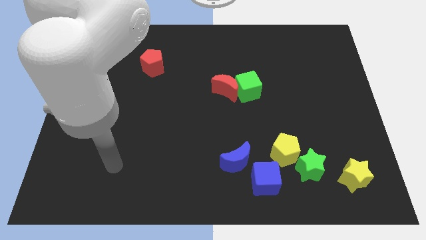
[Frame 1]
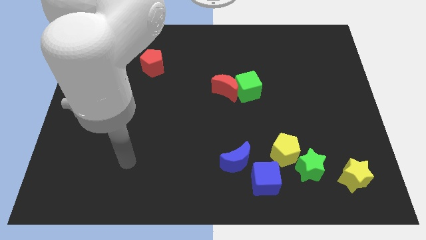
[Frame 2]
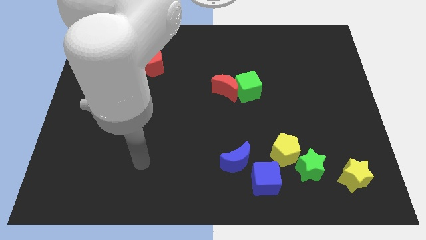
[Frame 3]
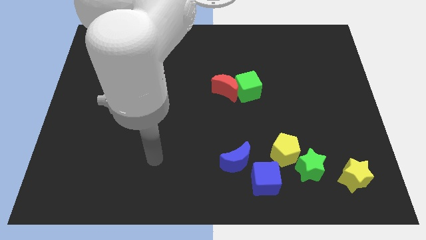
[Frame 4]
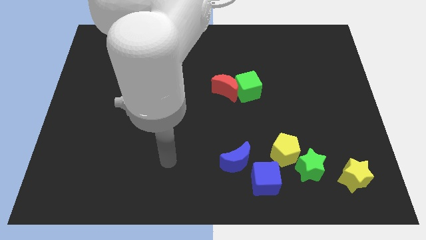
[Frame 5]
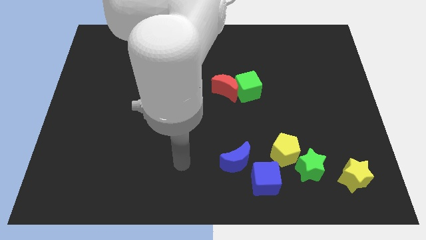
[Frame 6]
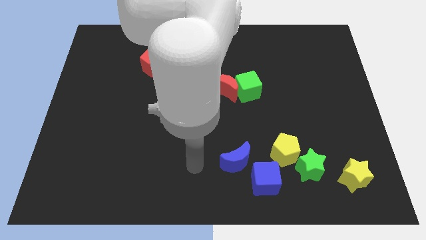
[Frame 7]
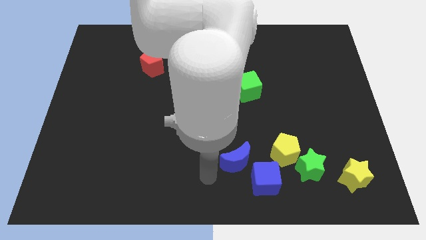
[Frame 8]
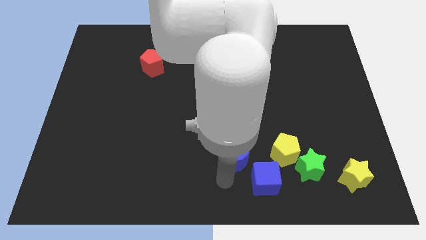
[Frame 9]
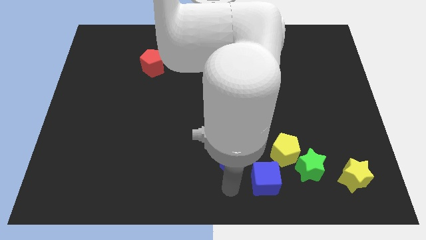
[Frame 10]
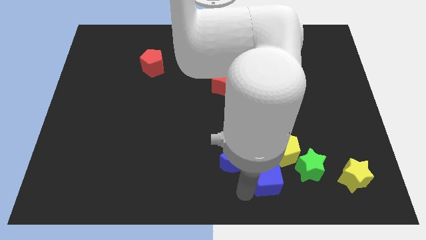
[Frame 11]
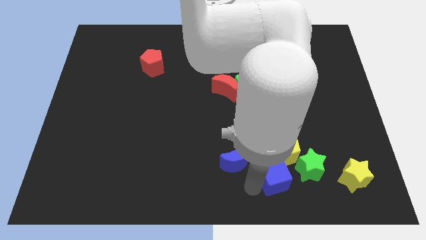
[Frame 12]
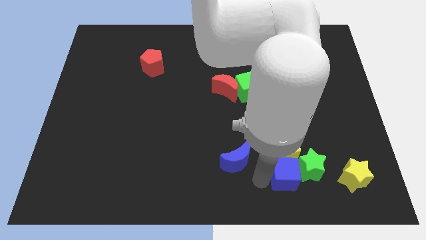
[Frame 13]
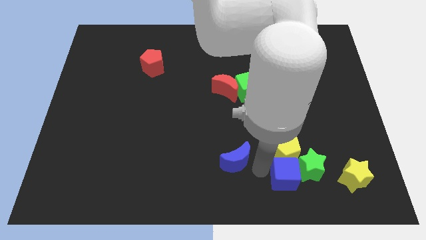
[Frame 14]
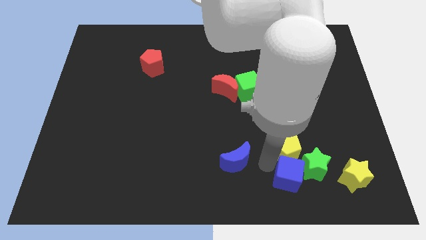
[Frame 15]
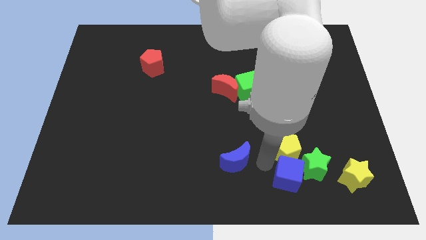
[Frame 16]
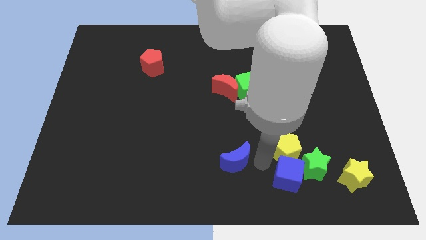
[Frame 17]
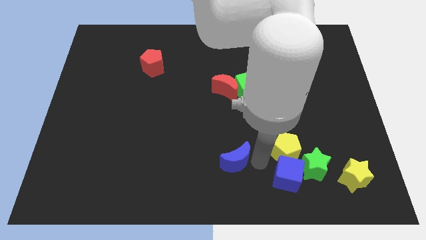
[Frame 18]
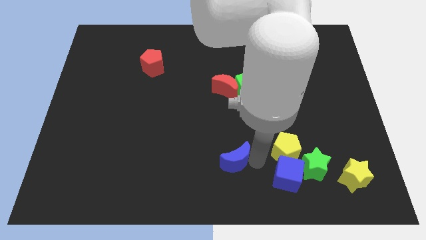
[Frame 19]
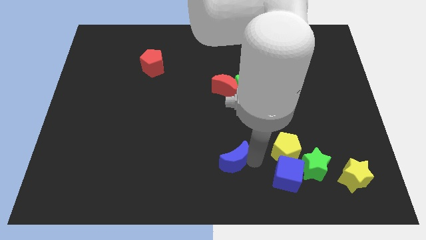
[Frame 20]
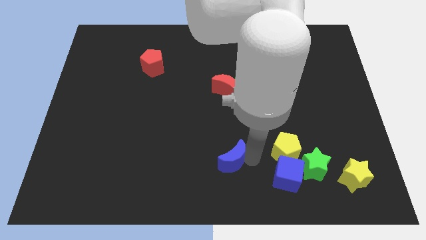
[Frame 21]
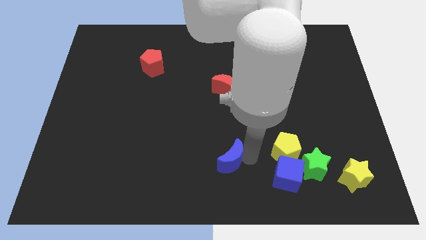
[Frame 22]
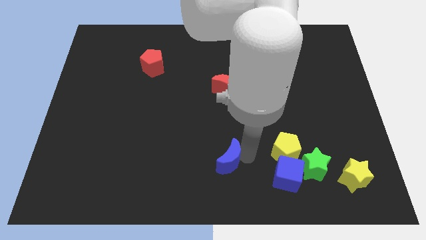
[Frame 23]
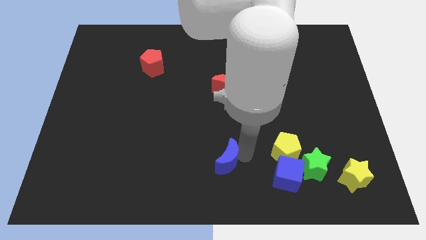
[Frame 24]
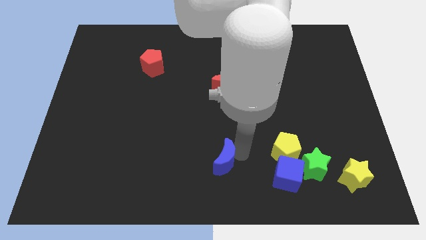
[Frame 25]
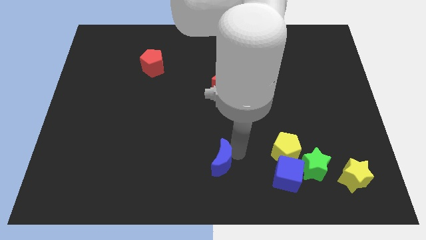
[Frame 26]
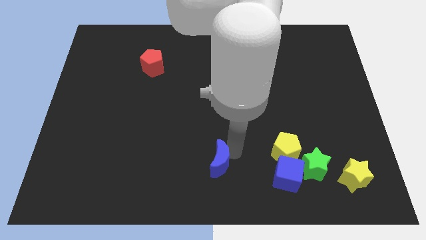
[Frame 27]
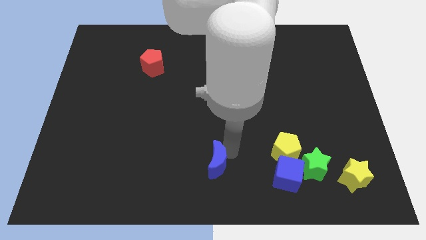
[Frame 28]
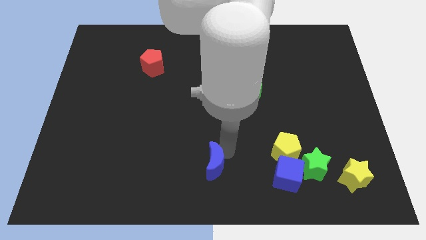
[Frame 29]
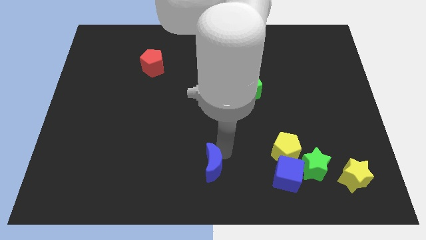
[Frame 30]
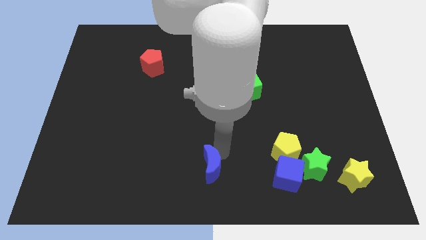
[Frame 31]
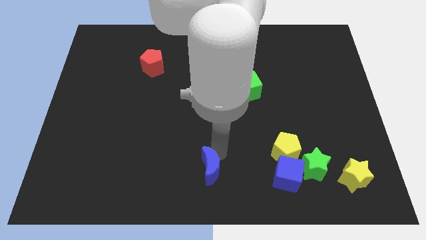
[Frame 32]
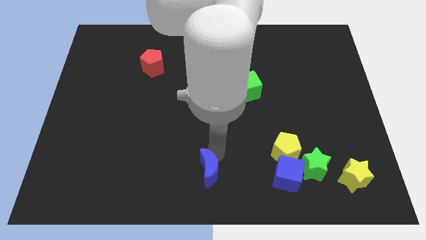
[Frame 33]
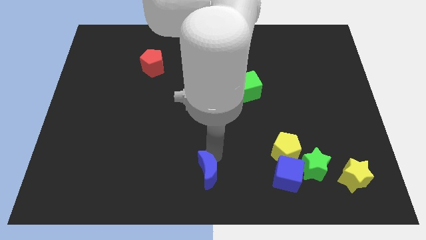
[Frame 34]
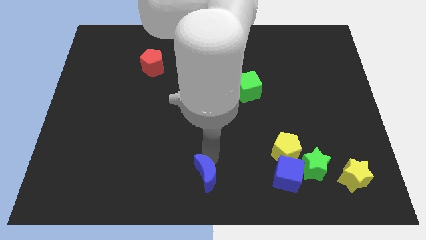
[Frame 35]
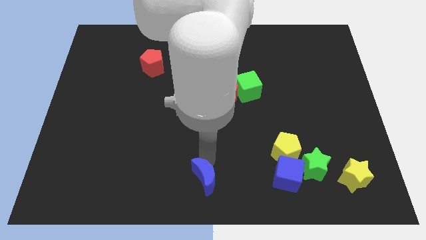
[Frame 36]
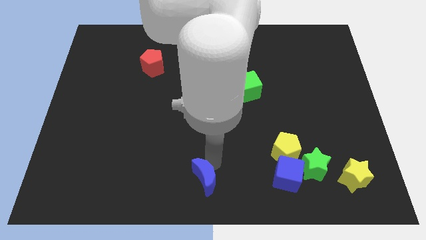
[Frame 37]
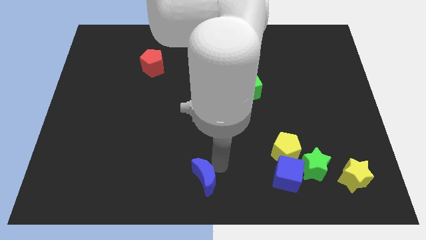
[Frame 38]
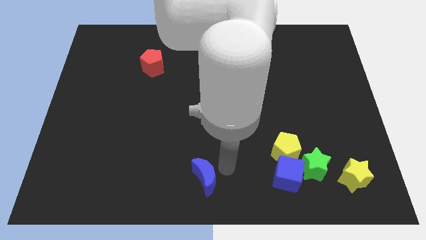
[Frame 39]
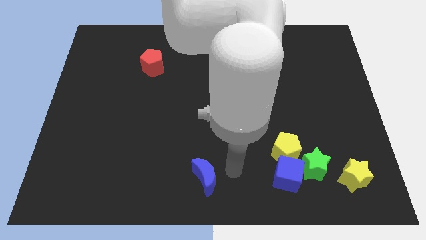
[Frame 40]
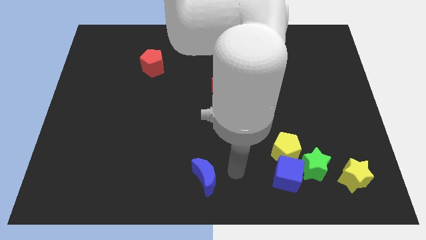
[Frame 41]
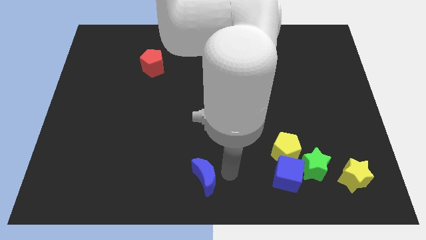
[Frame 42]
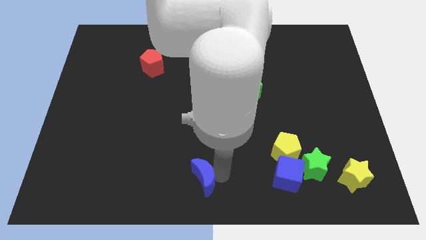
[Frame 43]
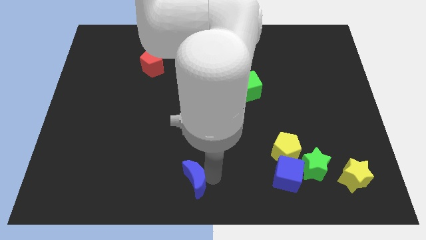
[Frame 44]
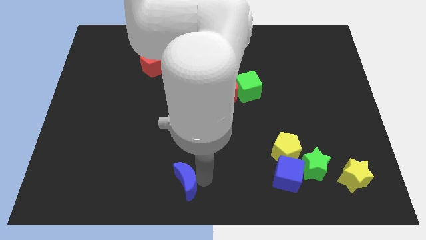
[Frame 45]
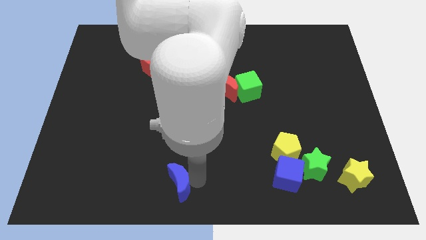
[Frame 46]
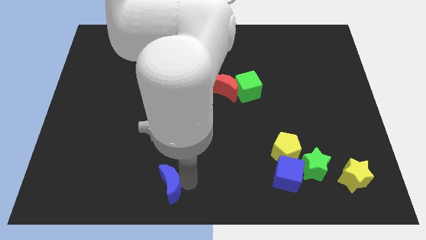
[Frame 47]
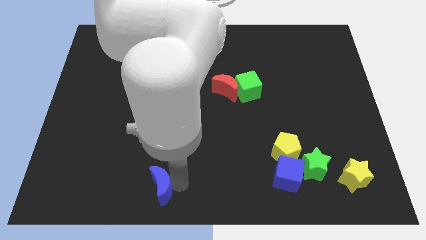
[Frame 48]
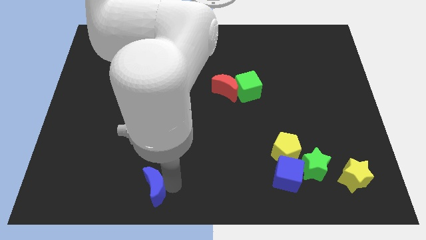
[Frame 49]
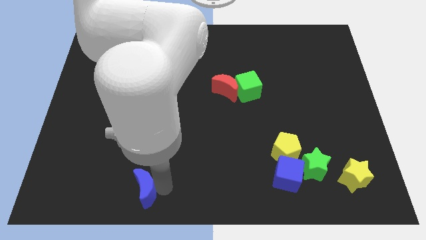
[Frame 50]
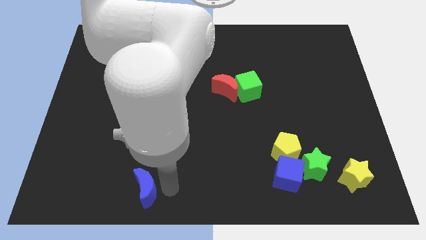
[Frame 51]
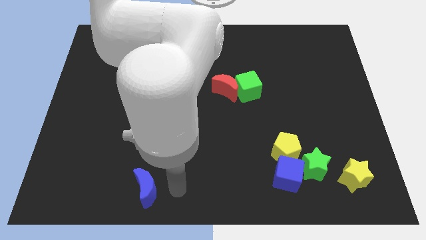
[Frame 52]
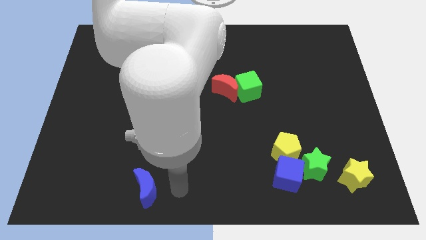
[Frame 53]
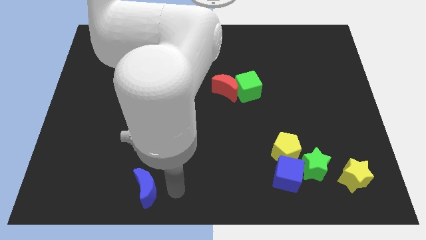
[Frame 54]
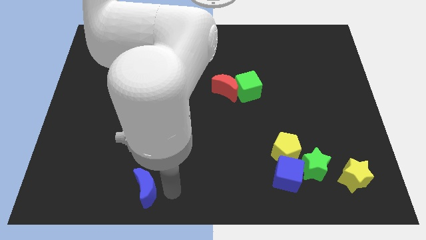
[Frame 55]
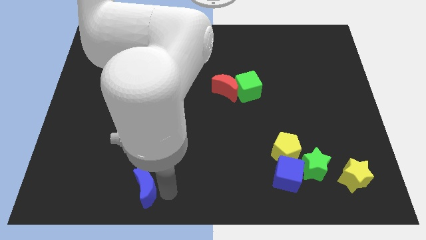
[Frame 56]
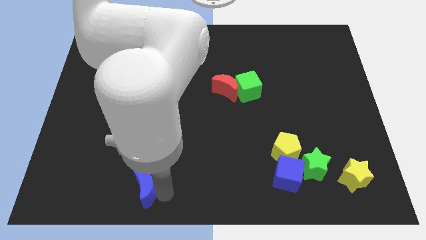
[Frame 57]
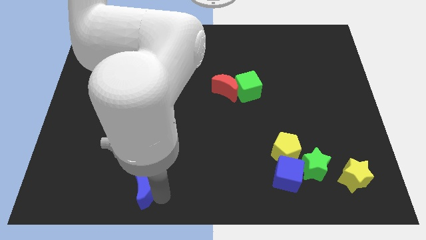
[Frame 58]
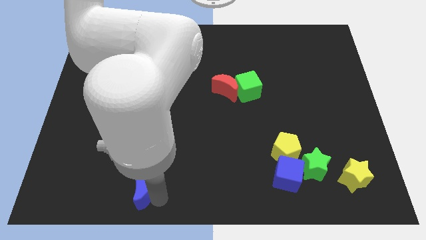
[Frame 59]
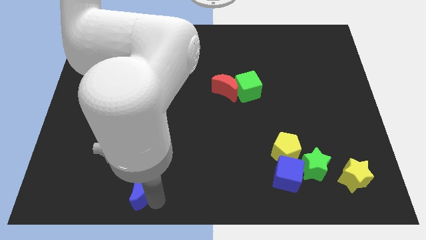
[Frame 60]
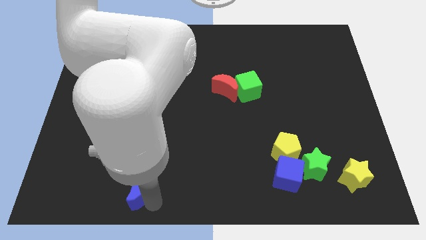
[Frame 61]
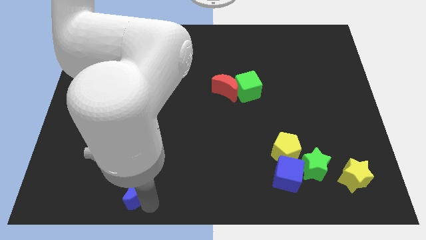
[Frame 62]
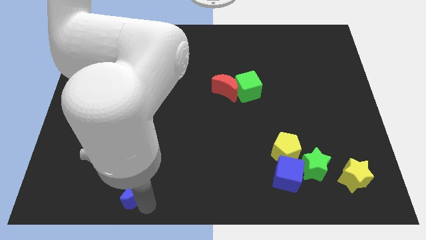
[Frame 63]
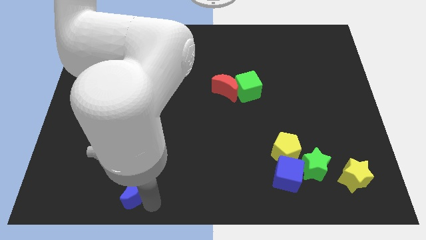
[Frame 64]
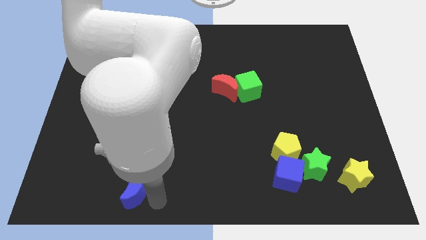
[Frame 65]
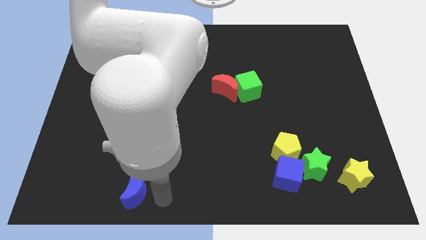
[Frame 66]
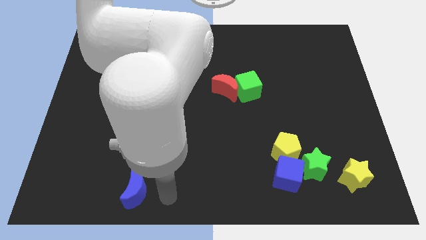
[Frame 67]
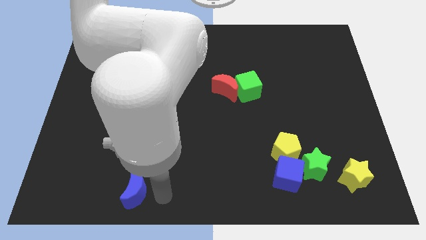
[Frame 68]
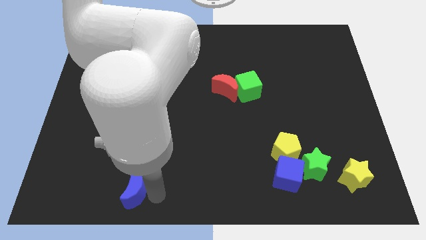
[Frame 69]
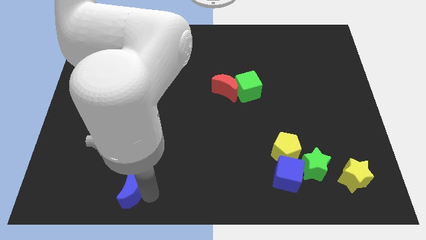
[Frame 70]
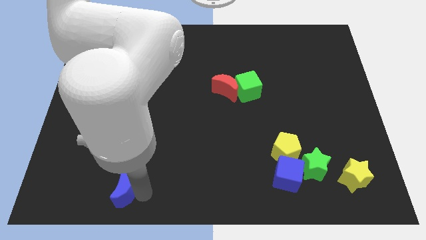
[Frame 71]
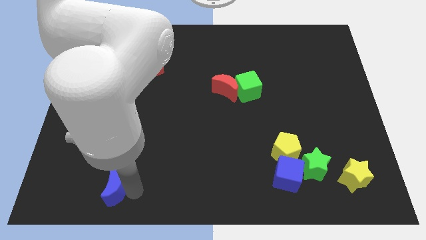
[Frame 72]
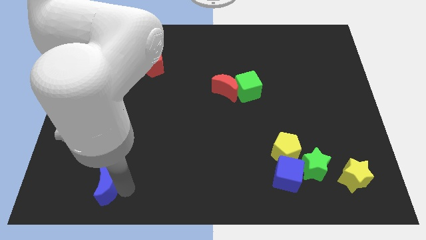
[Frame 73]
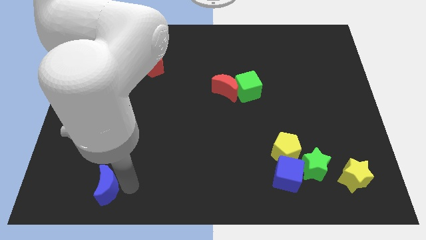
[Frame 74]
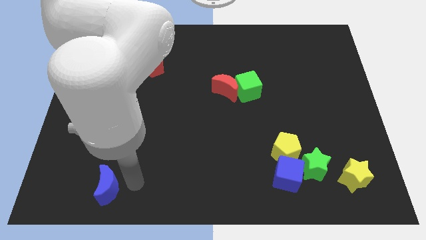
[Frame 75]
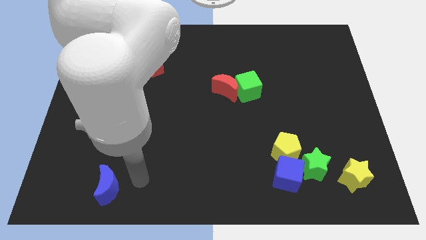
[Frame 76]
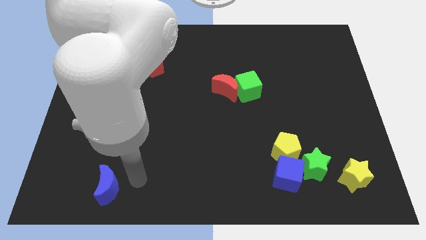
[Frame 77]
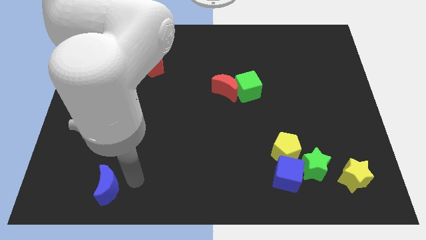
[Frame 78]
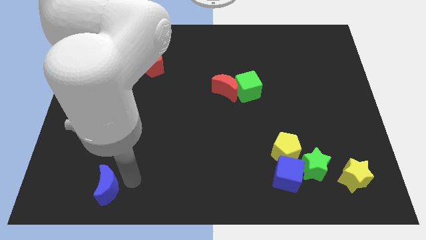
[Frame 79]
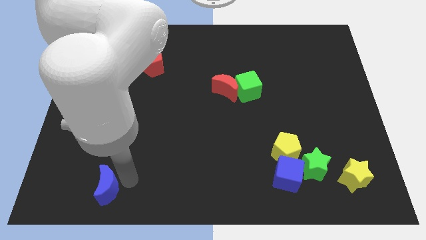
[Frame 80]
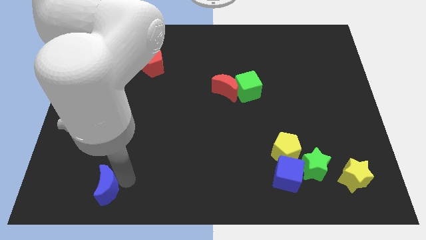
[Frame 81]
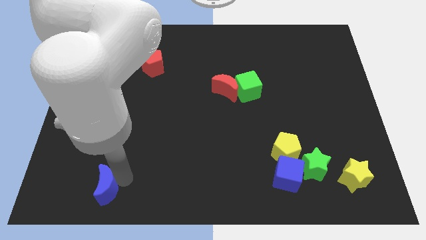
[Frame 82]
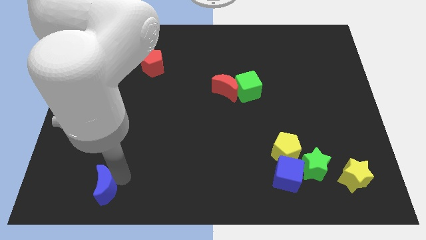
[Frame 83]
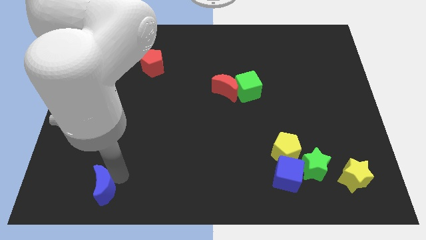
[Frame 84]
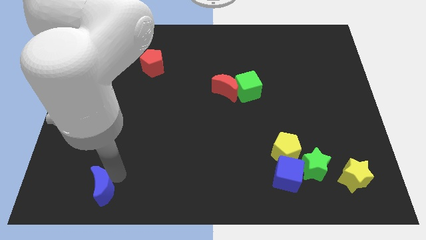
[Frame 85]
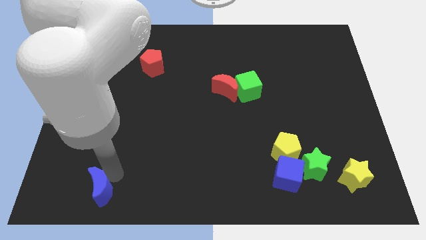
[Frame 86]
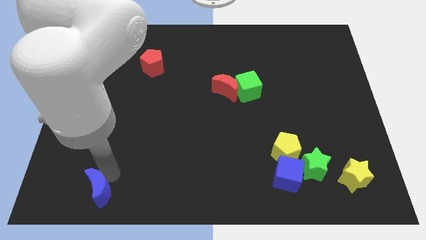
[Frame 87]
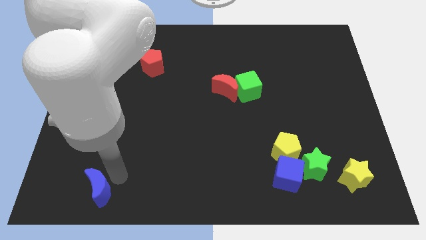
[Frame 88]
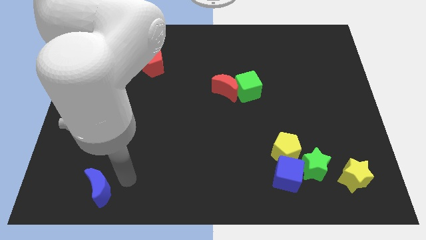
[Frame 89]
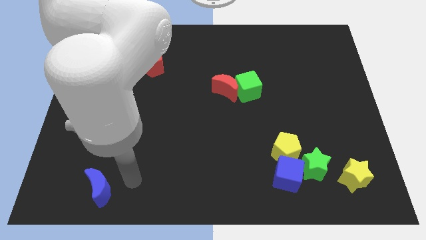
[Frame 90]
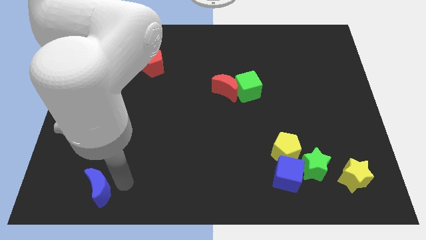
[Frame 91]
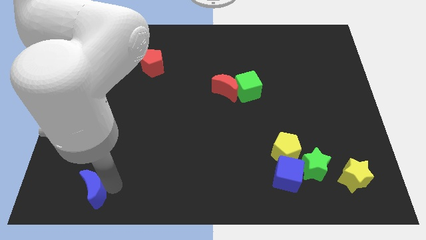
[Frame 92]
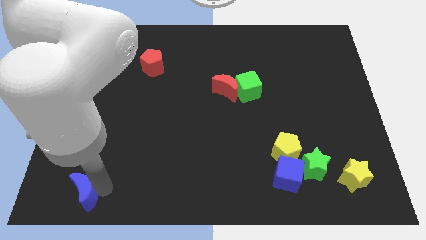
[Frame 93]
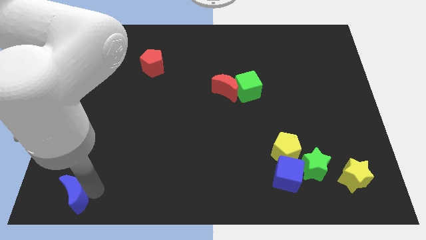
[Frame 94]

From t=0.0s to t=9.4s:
slide the blue moon to the lower left corner
